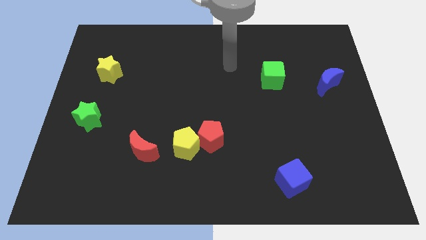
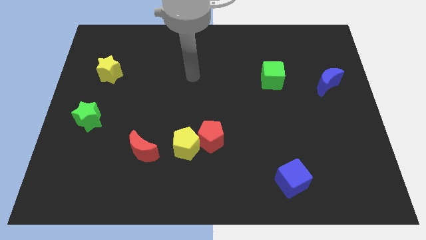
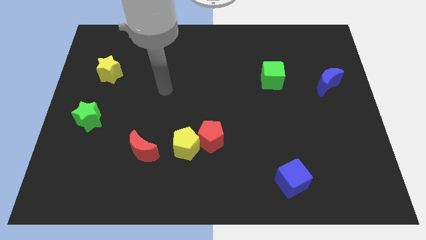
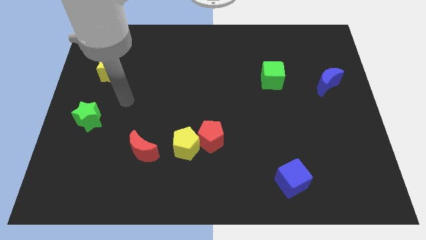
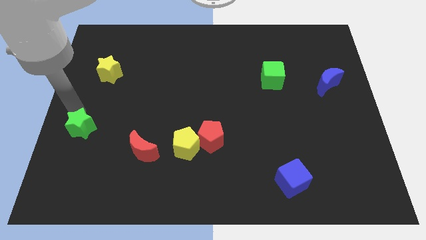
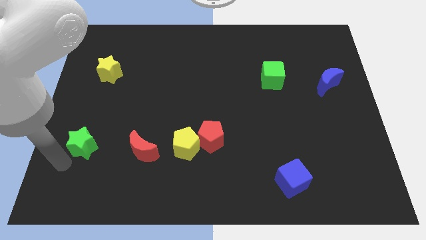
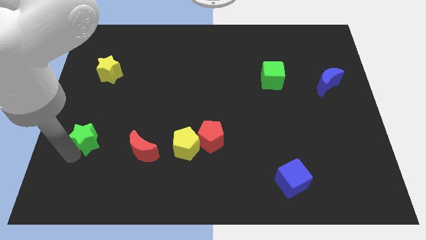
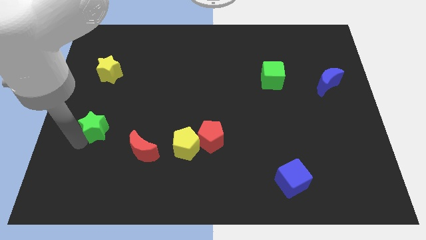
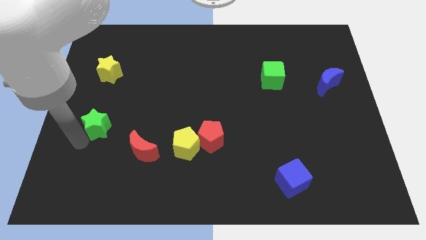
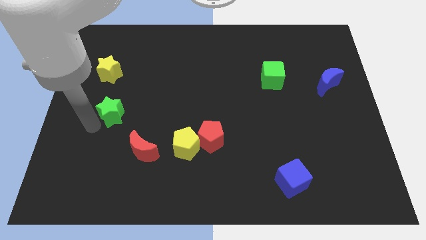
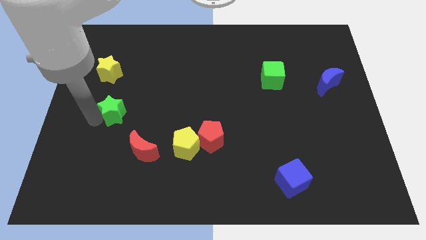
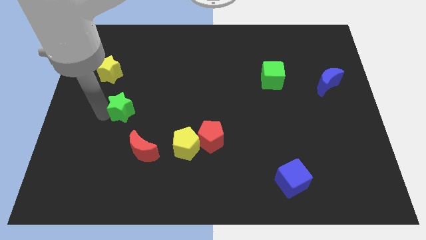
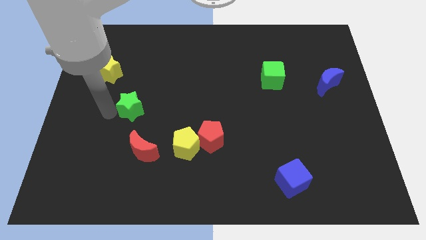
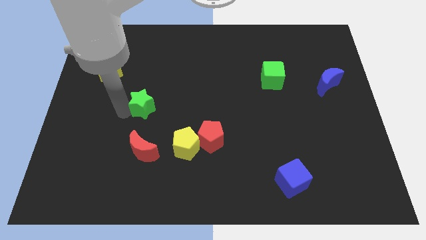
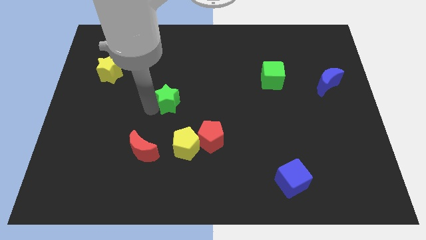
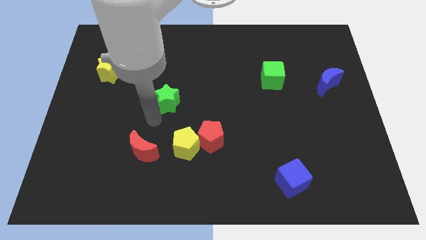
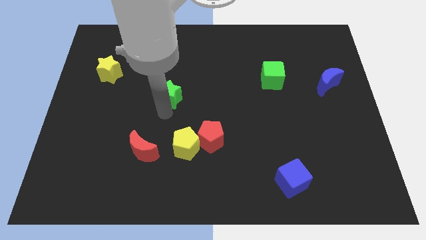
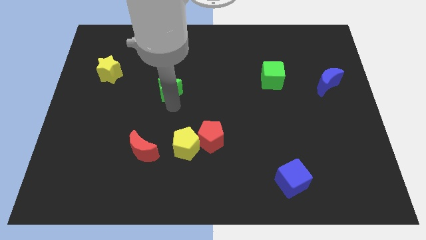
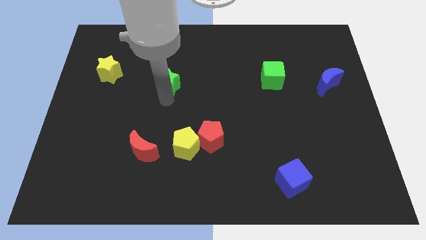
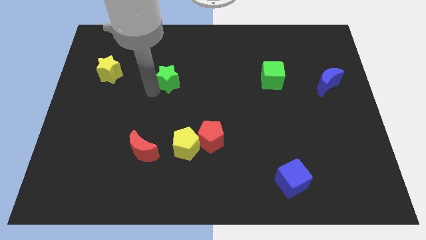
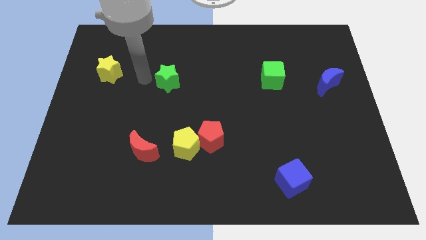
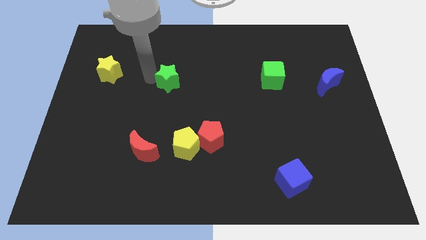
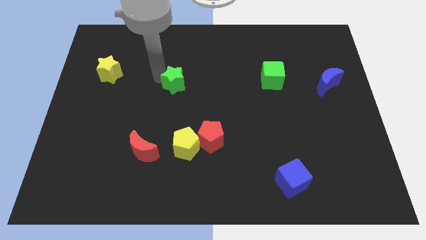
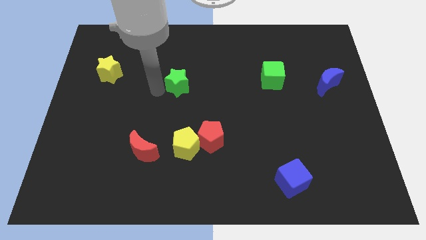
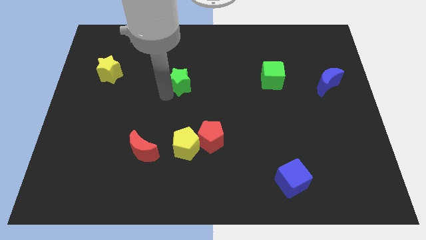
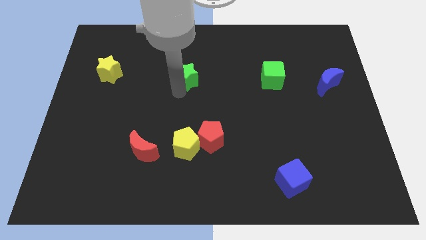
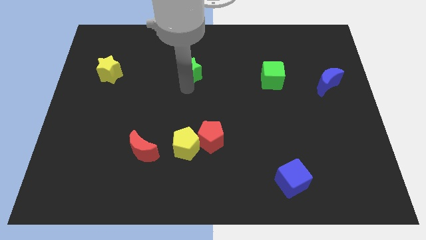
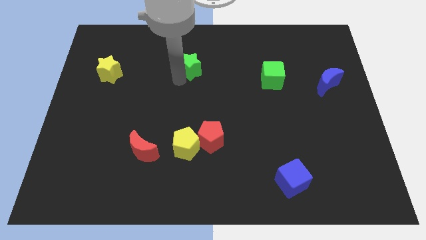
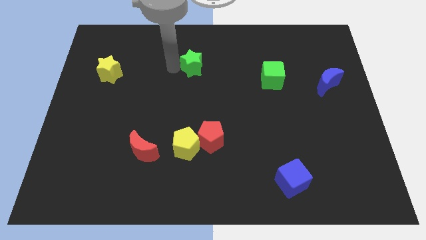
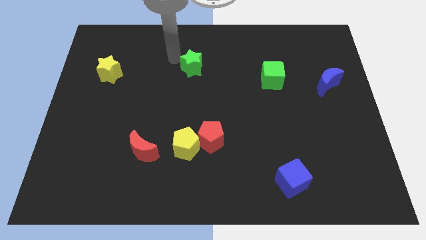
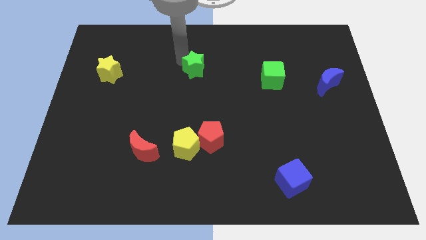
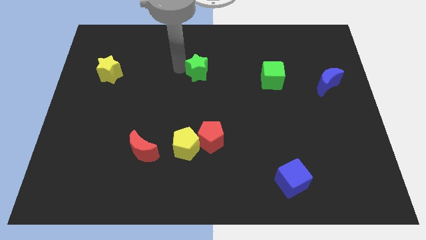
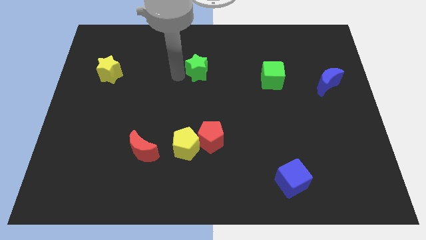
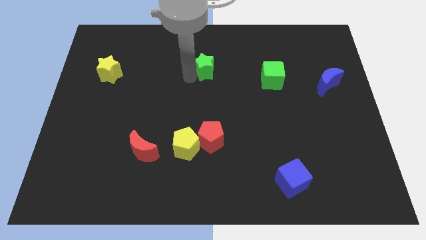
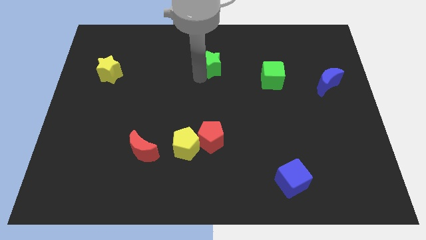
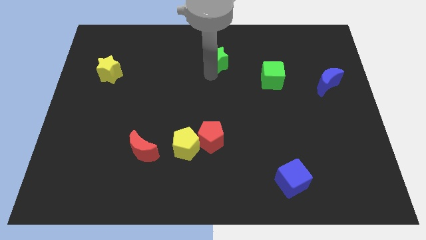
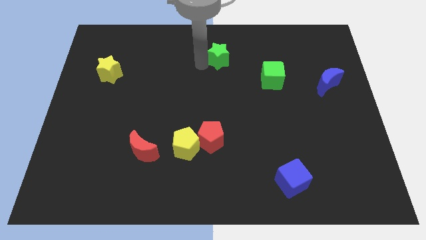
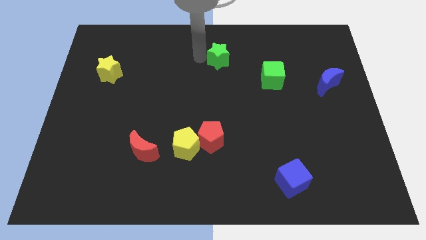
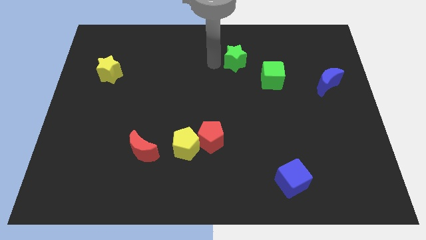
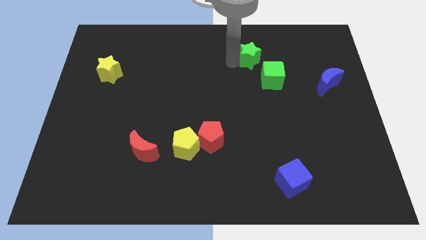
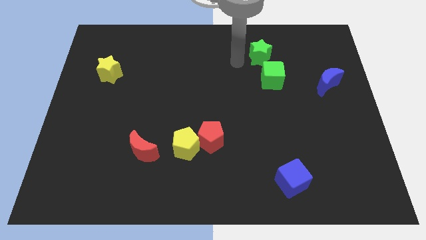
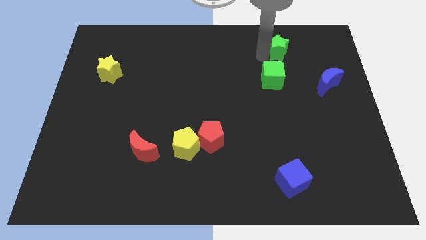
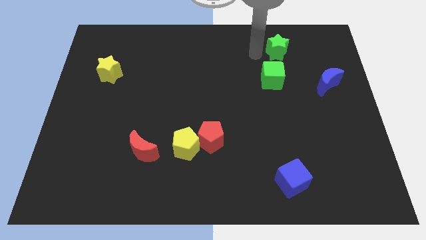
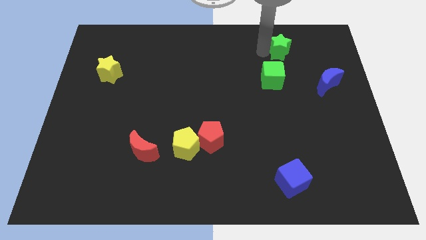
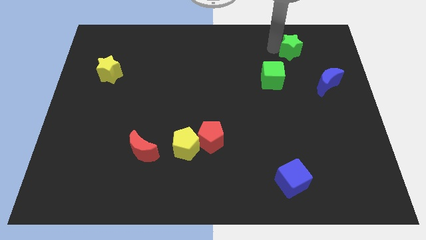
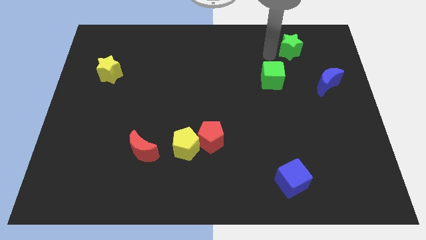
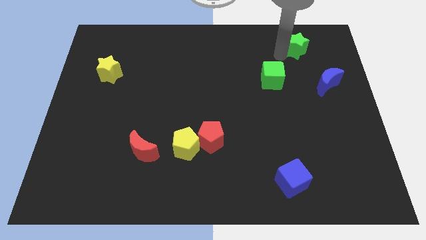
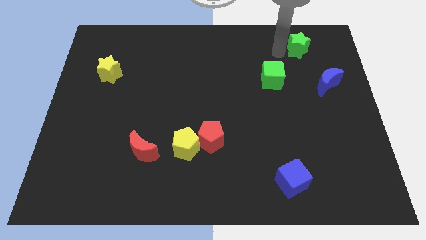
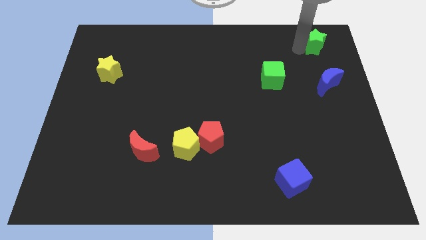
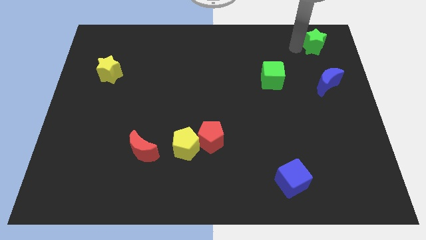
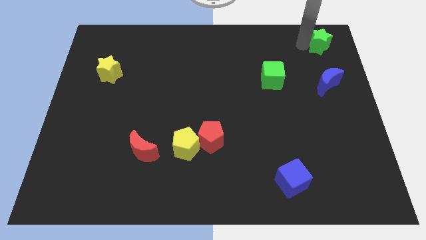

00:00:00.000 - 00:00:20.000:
slide the green star to the top right corner

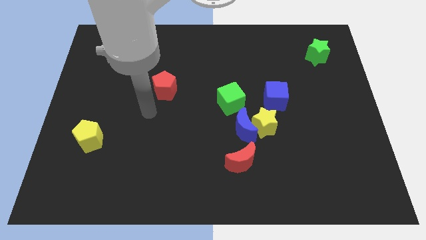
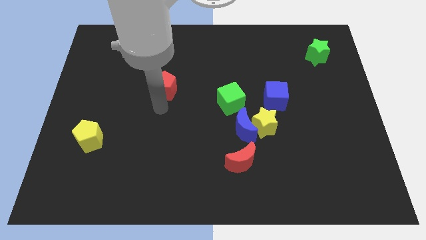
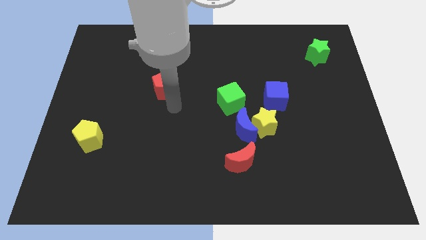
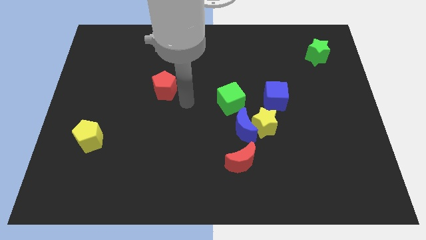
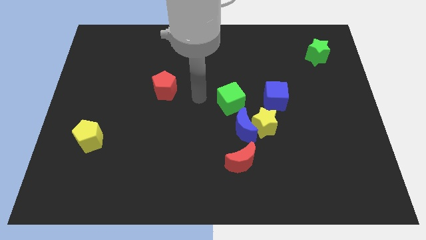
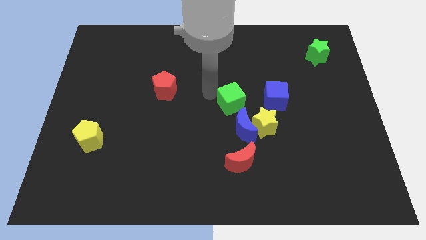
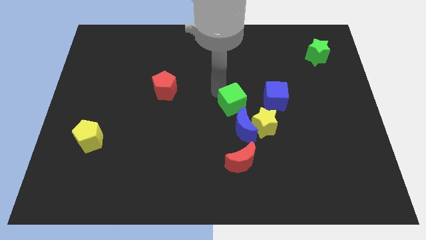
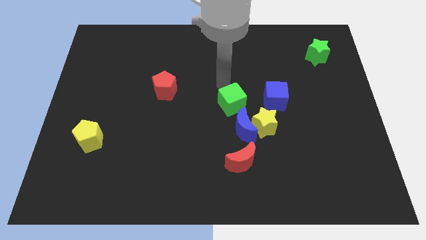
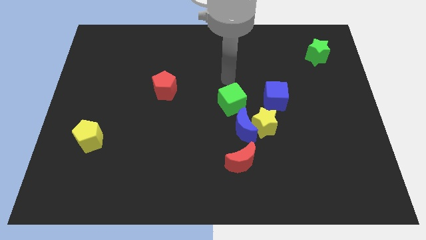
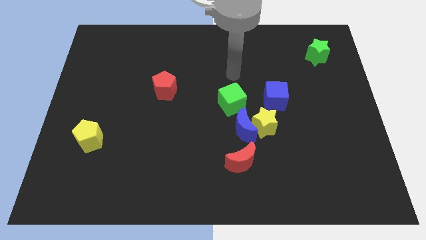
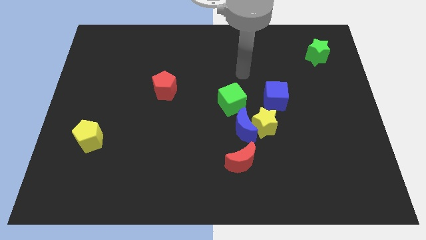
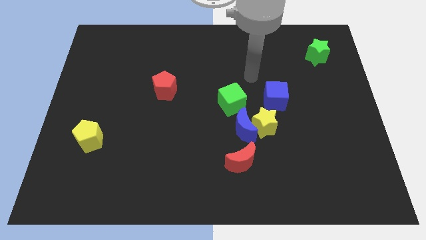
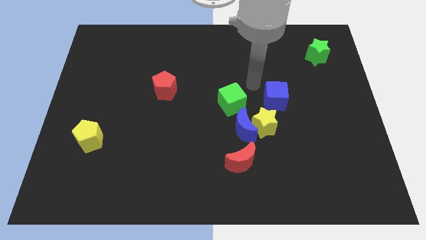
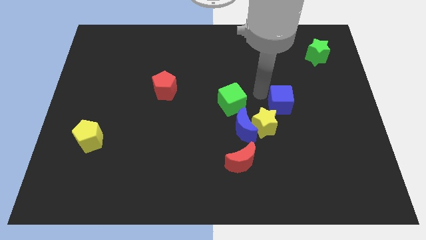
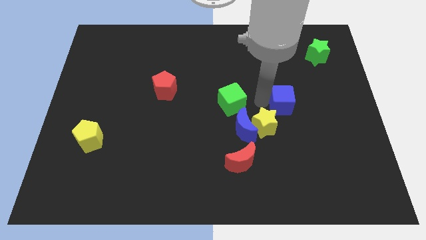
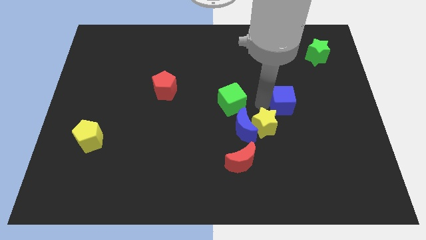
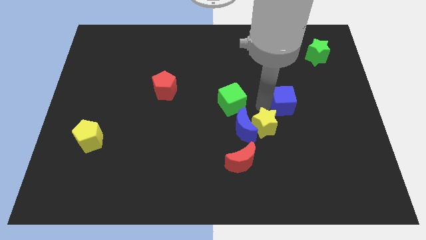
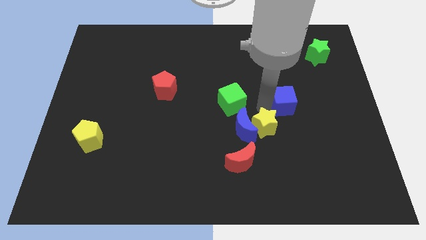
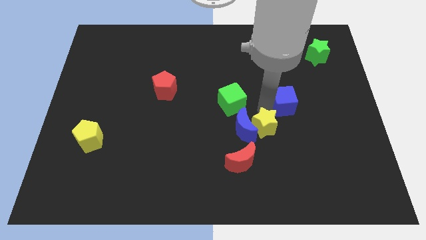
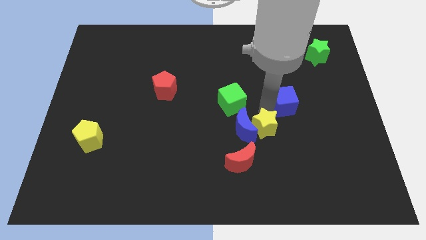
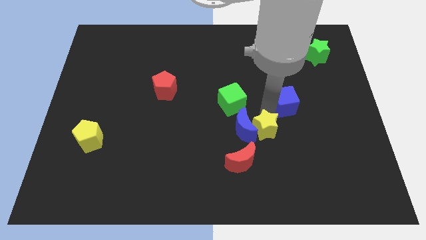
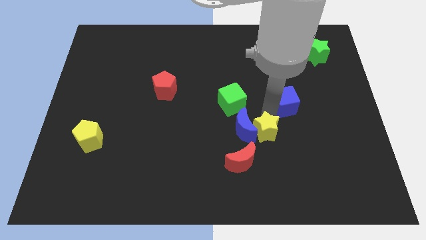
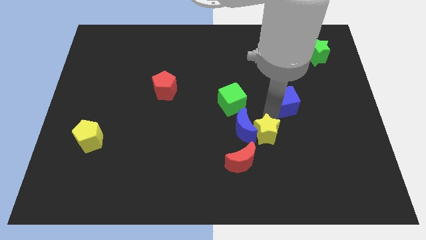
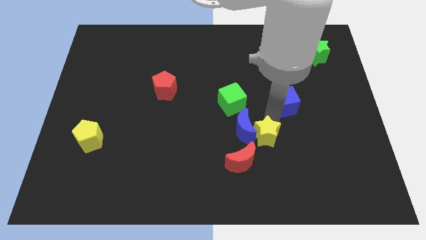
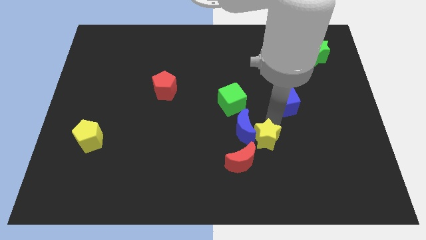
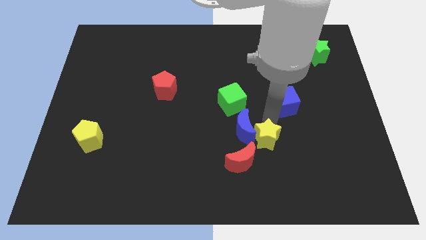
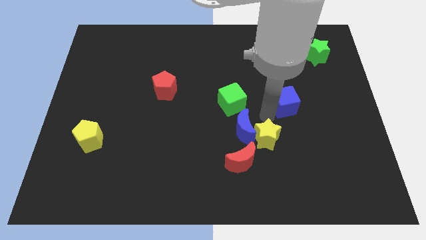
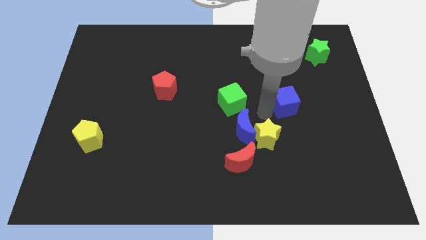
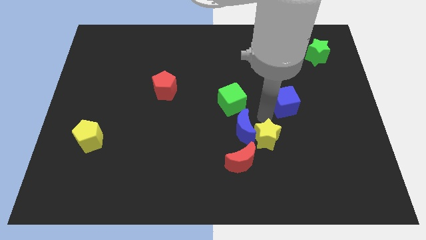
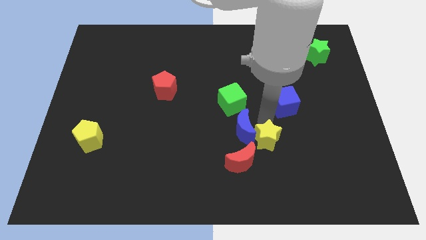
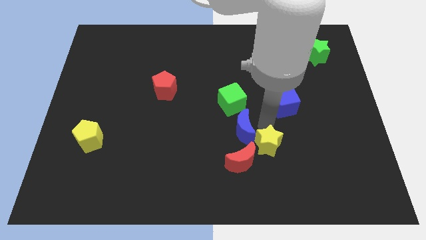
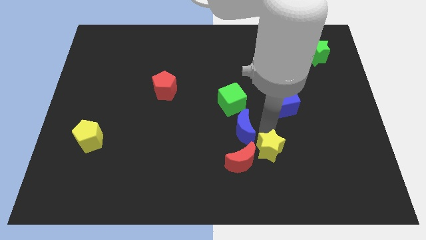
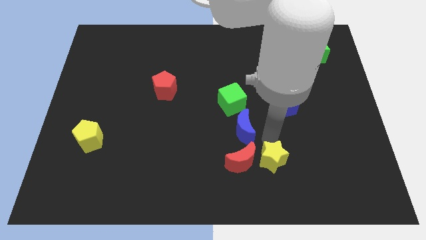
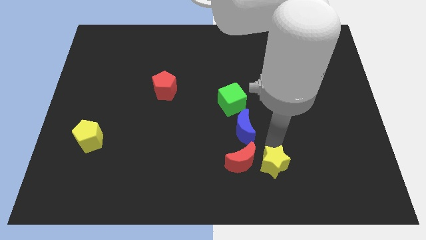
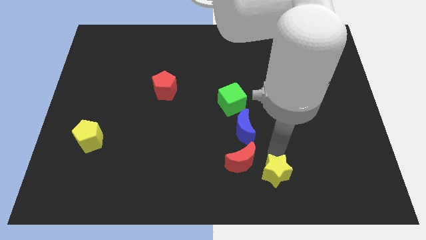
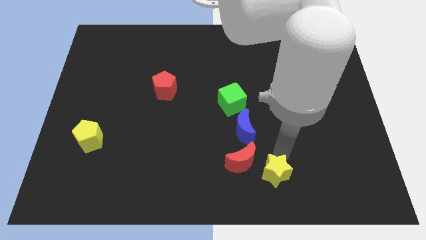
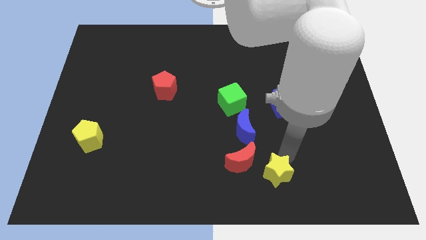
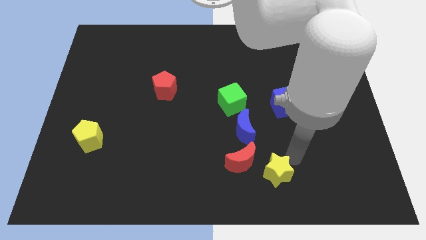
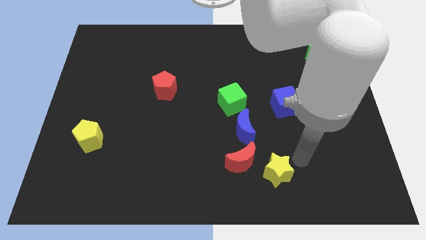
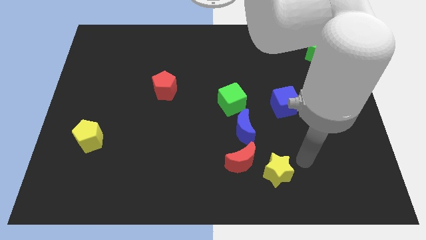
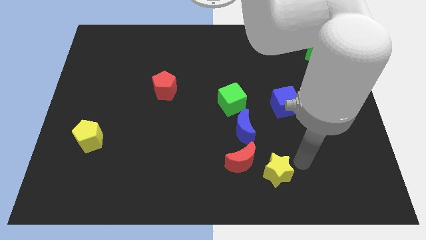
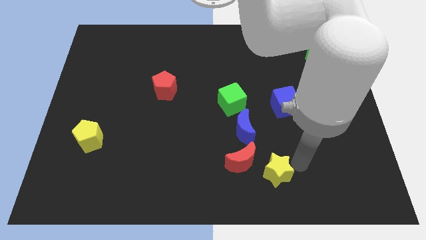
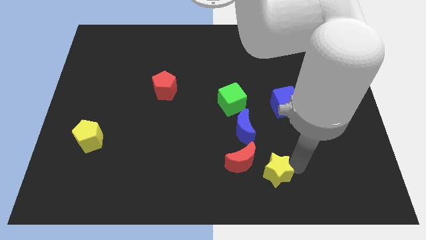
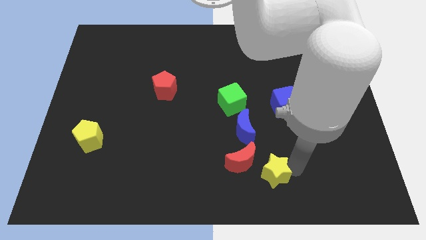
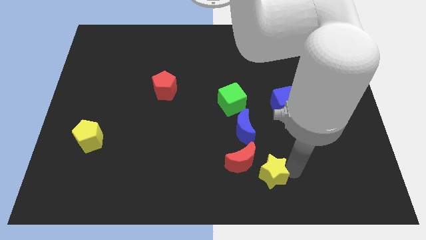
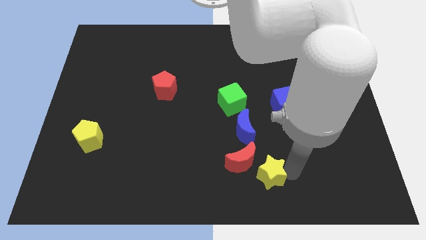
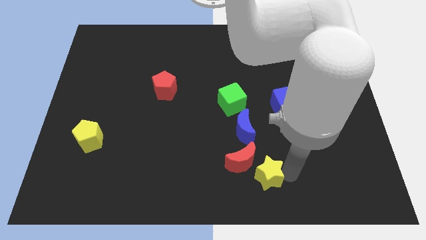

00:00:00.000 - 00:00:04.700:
slide the yellow star to the bottom
